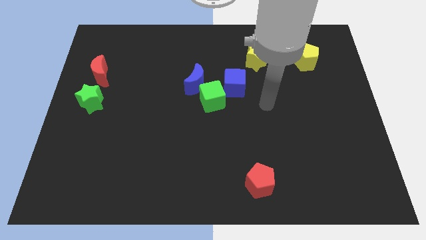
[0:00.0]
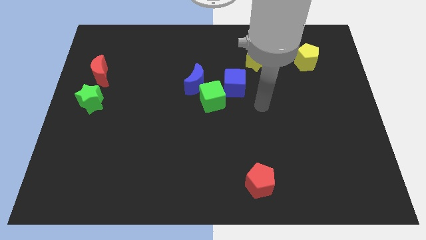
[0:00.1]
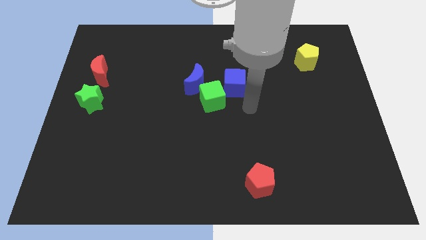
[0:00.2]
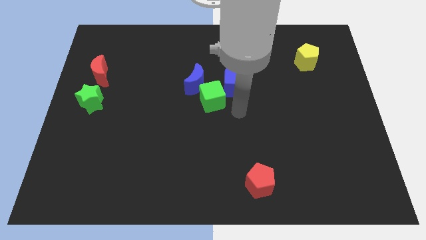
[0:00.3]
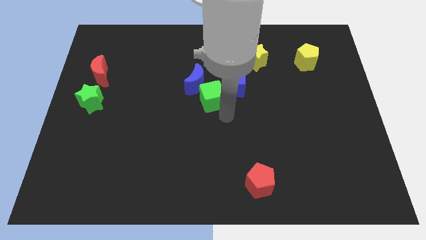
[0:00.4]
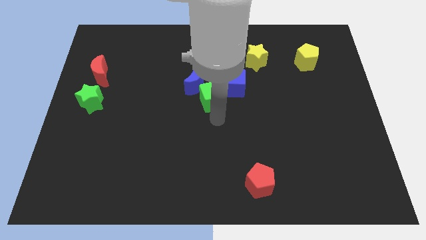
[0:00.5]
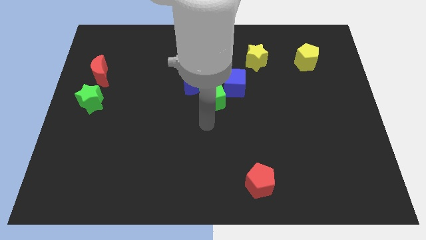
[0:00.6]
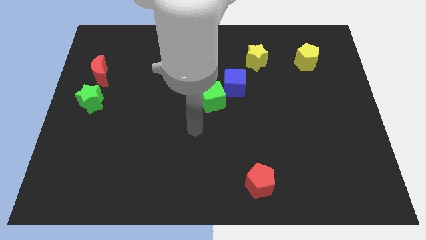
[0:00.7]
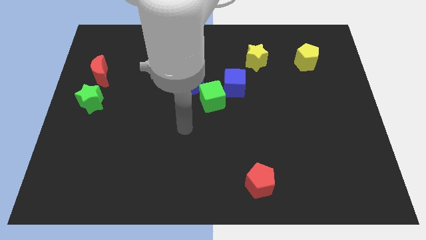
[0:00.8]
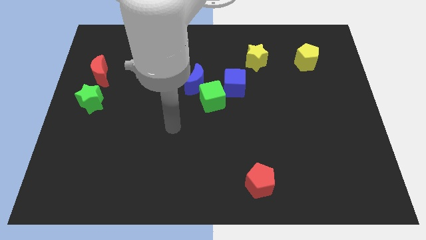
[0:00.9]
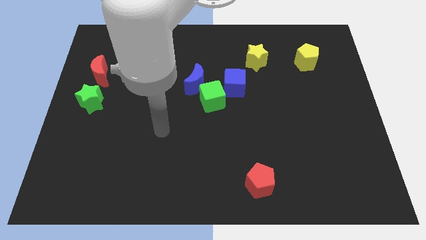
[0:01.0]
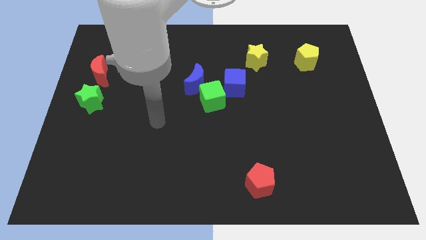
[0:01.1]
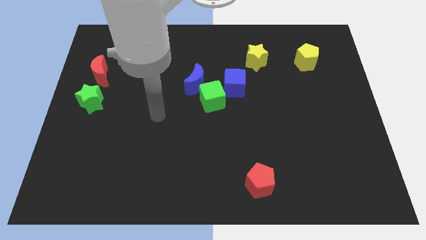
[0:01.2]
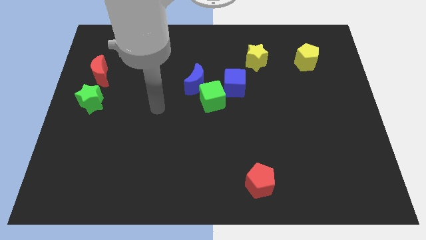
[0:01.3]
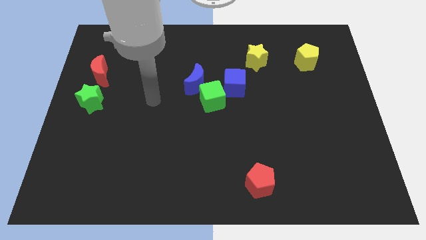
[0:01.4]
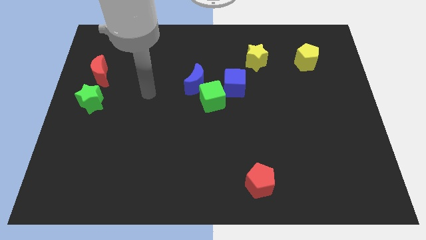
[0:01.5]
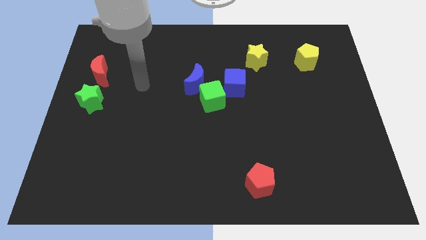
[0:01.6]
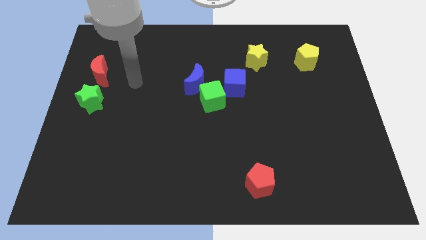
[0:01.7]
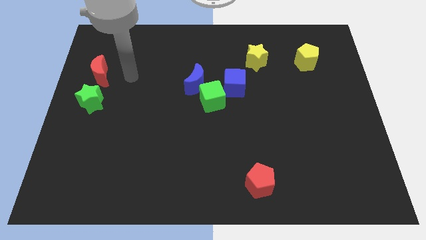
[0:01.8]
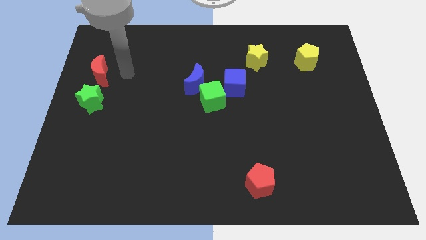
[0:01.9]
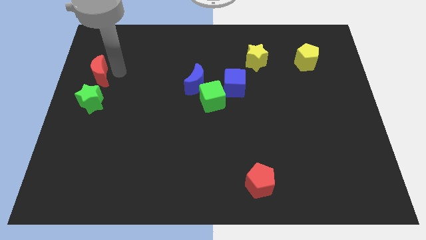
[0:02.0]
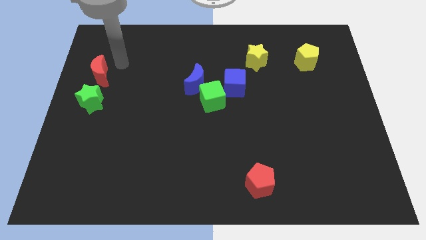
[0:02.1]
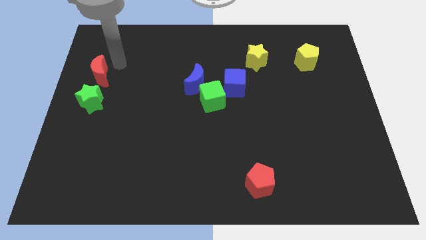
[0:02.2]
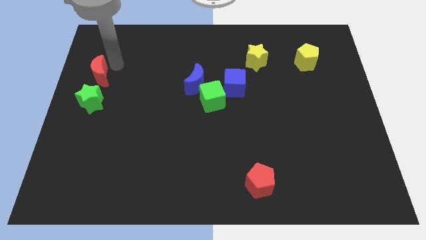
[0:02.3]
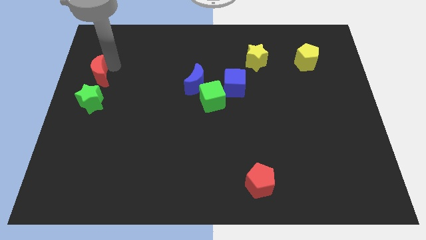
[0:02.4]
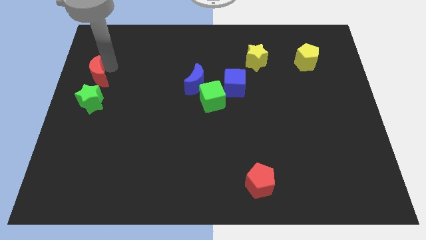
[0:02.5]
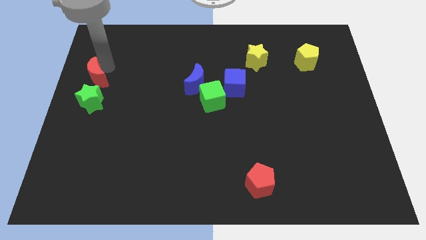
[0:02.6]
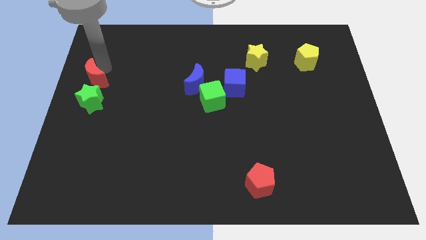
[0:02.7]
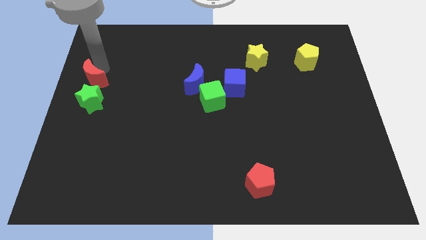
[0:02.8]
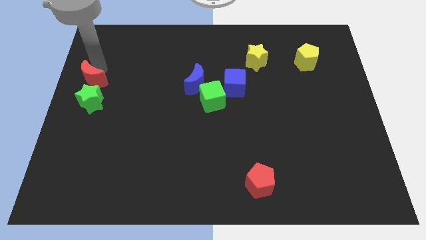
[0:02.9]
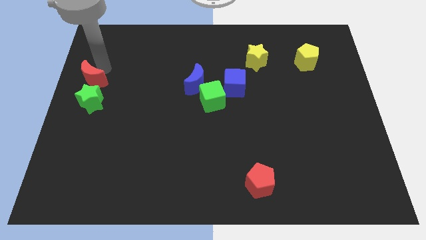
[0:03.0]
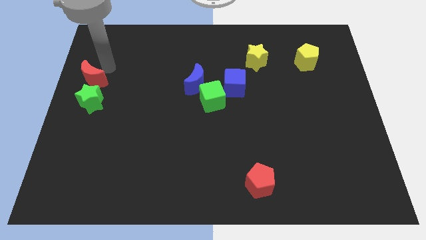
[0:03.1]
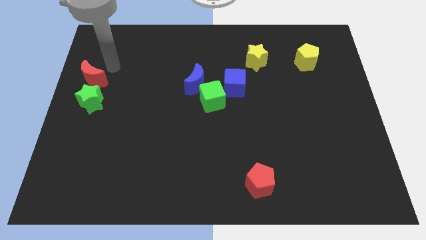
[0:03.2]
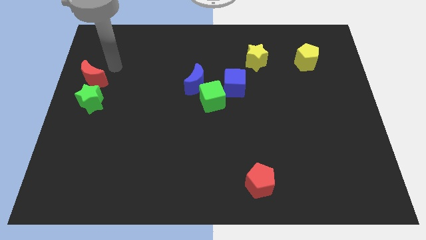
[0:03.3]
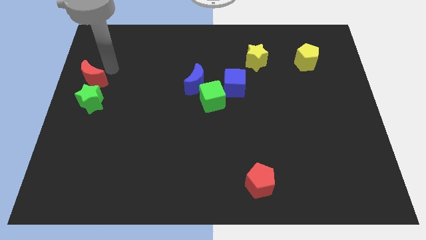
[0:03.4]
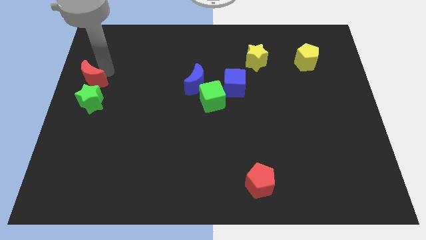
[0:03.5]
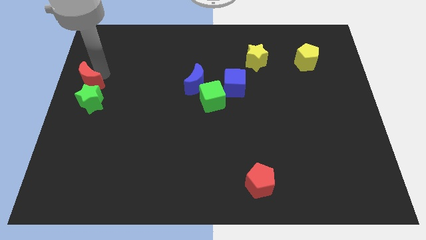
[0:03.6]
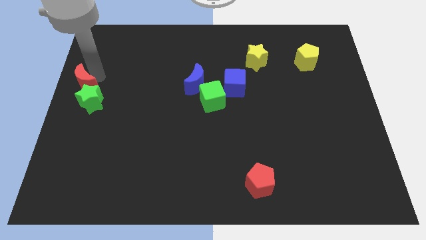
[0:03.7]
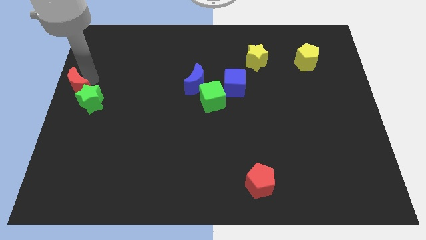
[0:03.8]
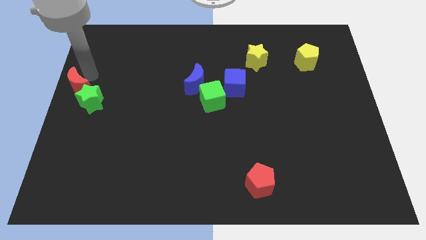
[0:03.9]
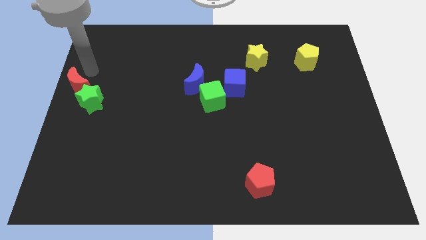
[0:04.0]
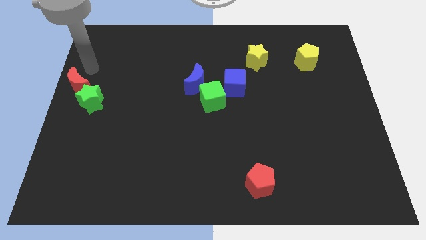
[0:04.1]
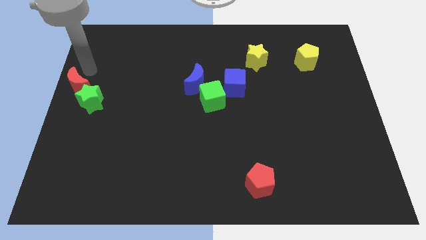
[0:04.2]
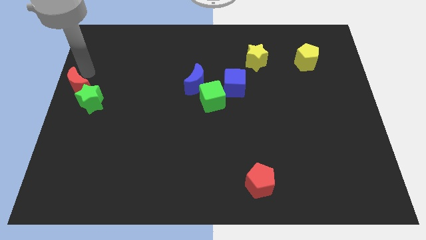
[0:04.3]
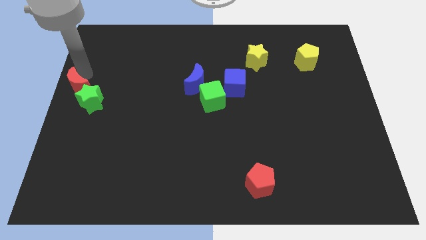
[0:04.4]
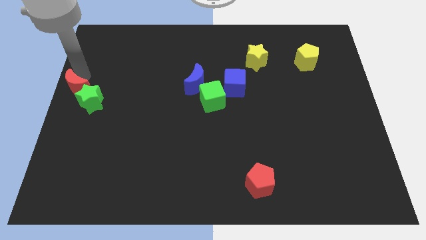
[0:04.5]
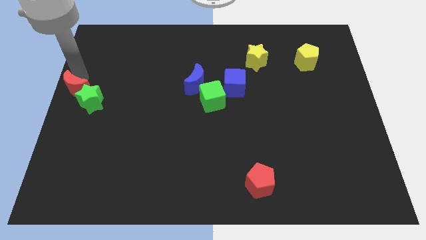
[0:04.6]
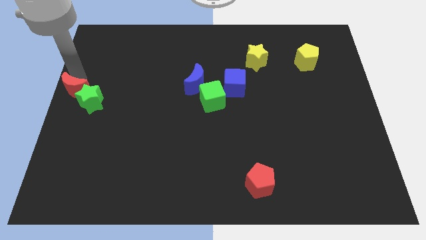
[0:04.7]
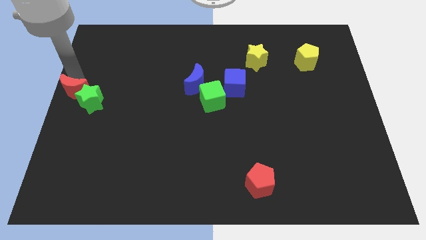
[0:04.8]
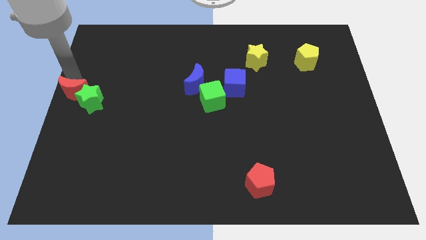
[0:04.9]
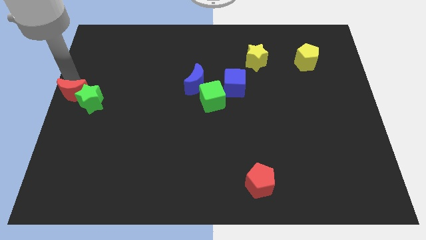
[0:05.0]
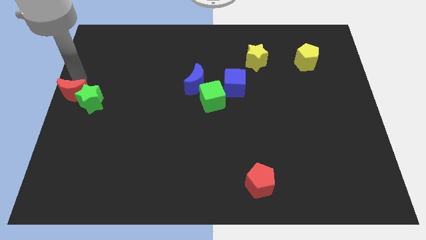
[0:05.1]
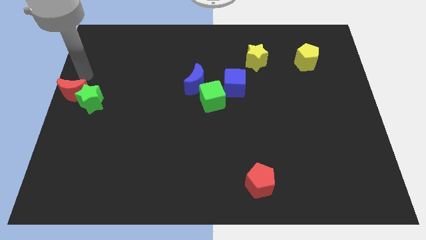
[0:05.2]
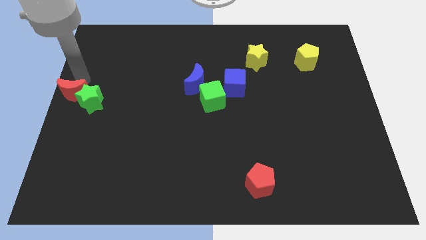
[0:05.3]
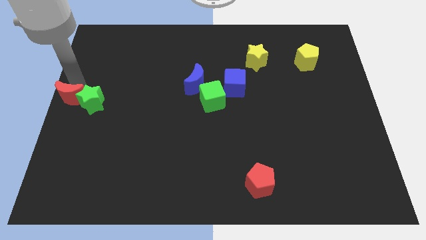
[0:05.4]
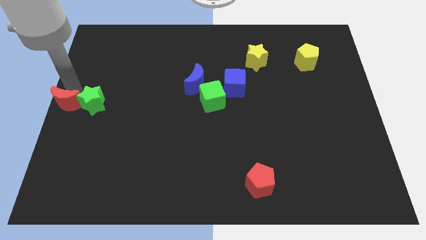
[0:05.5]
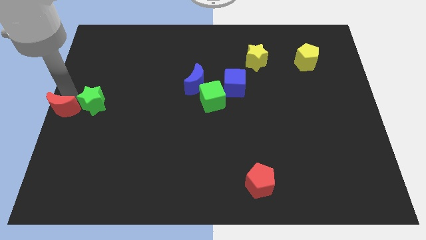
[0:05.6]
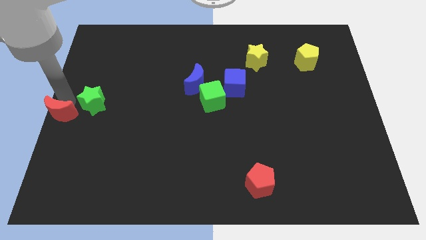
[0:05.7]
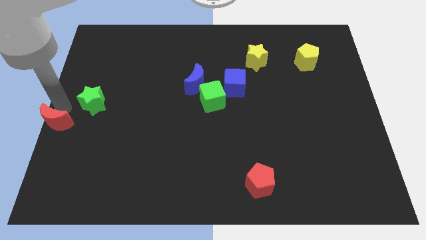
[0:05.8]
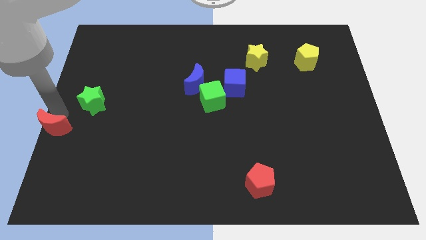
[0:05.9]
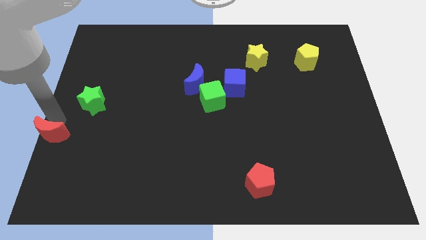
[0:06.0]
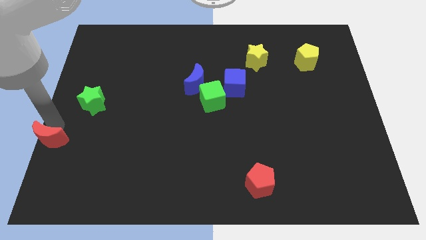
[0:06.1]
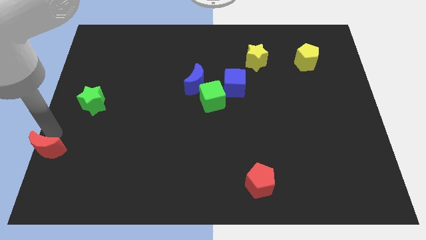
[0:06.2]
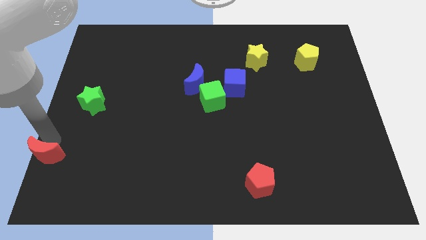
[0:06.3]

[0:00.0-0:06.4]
move the red moon to the bottom left

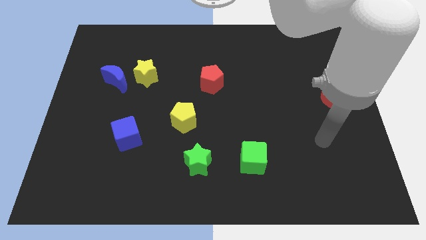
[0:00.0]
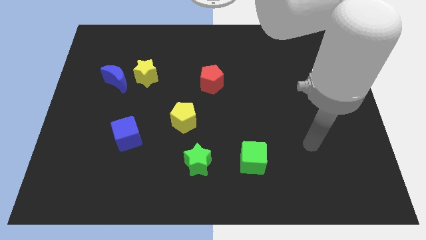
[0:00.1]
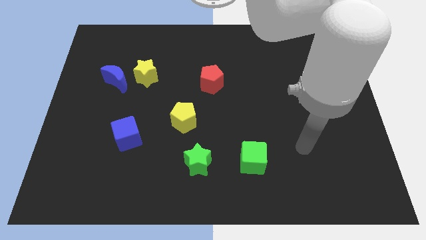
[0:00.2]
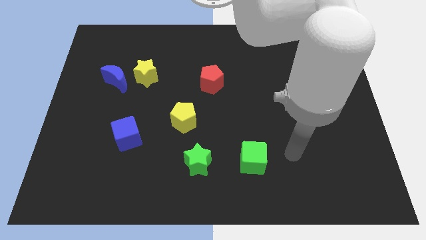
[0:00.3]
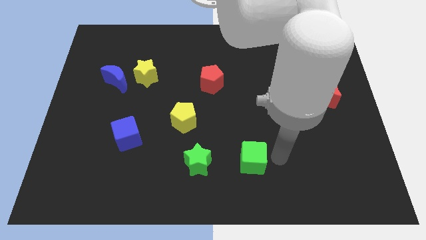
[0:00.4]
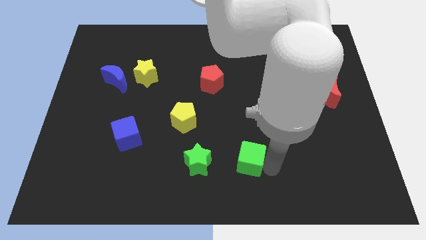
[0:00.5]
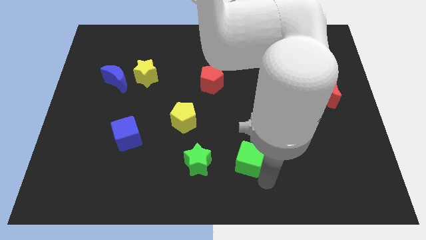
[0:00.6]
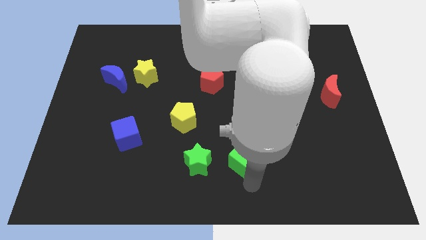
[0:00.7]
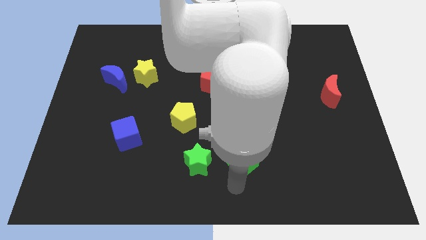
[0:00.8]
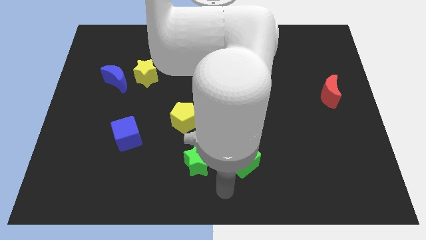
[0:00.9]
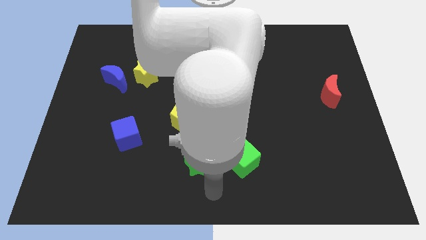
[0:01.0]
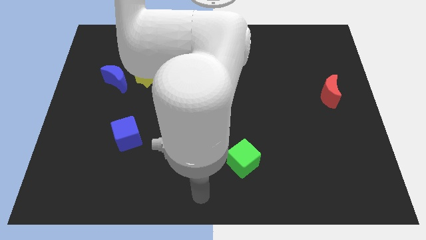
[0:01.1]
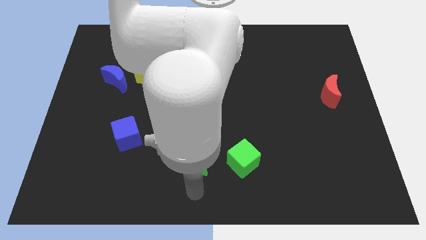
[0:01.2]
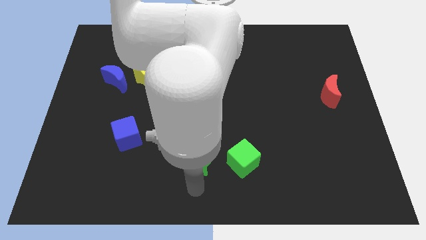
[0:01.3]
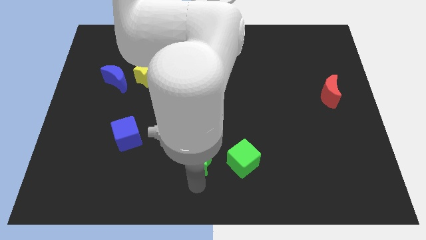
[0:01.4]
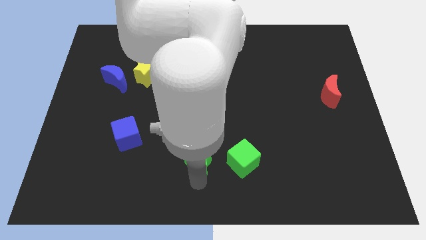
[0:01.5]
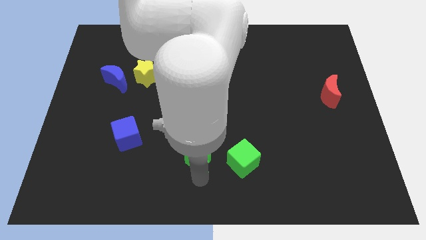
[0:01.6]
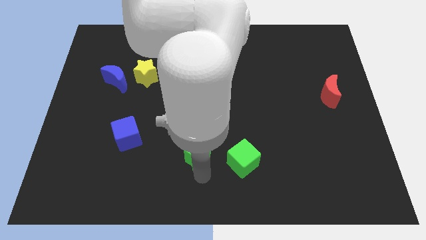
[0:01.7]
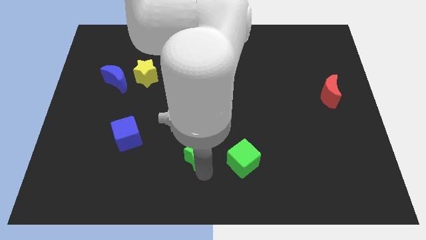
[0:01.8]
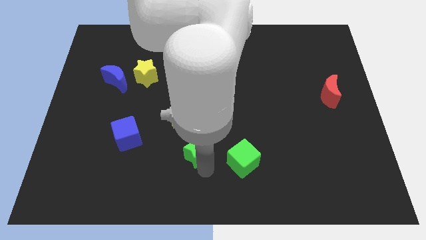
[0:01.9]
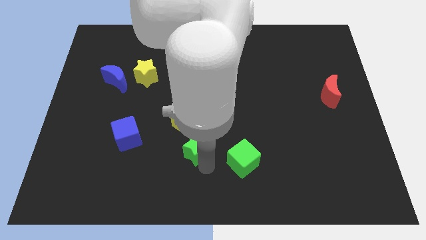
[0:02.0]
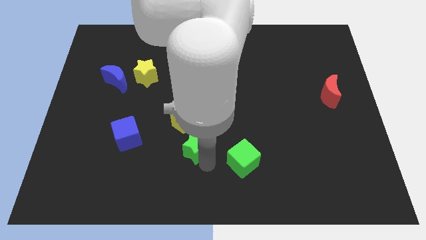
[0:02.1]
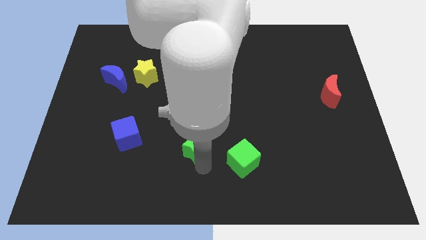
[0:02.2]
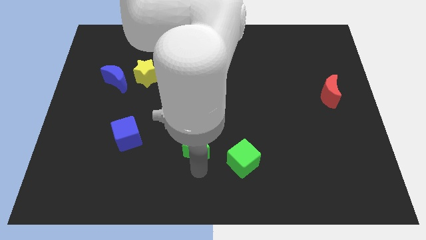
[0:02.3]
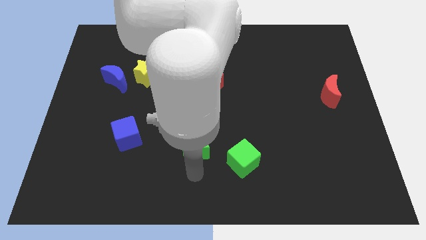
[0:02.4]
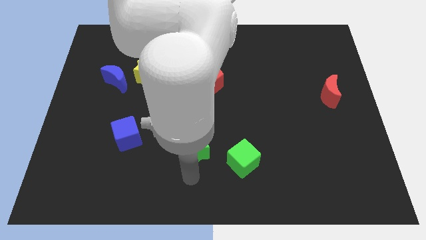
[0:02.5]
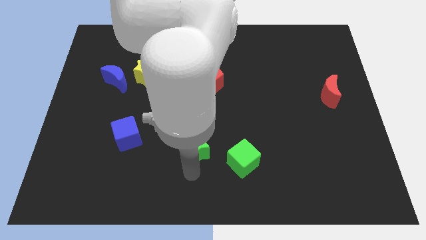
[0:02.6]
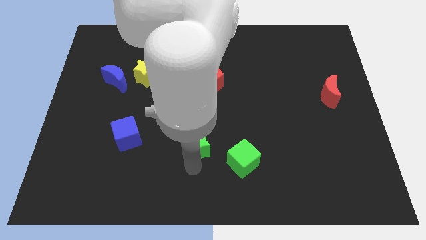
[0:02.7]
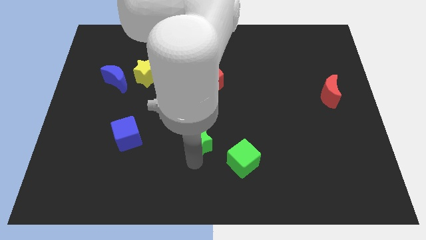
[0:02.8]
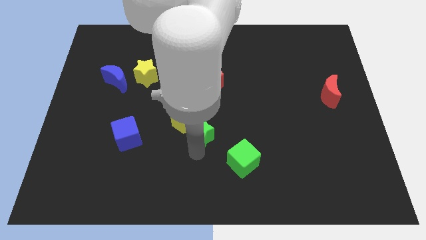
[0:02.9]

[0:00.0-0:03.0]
push the green star to the center
